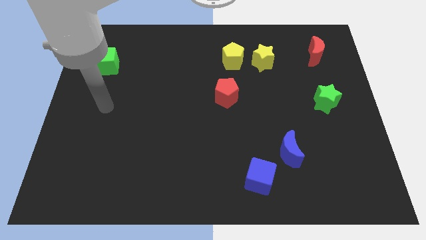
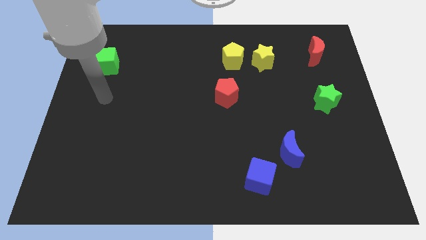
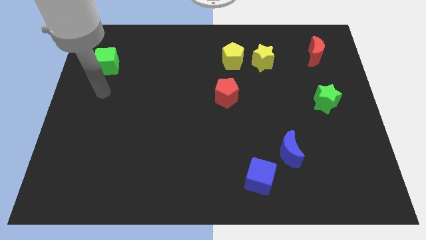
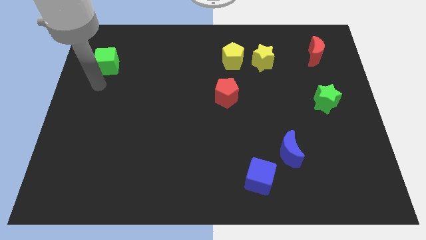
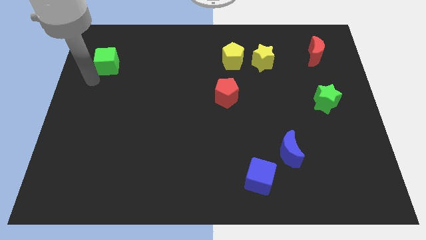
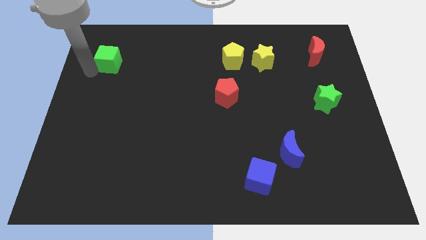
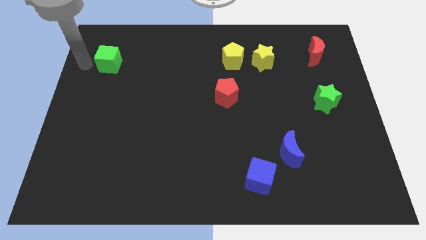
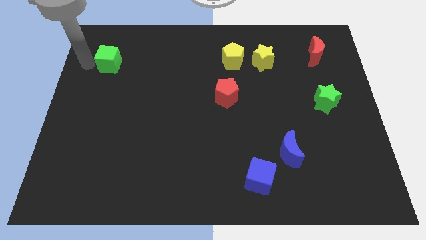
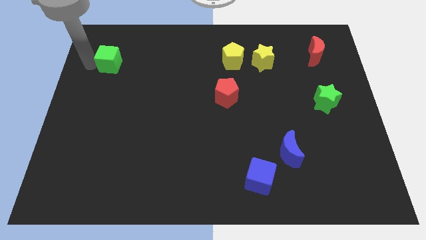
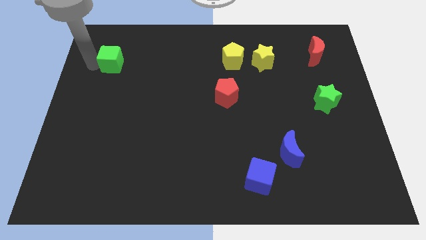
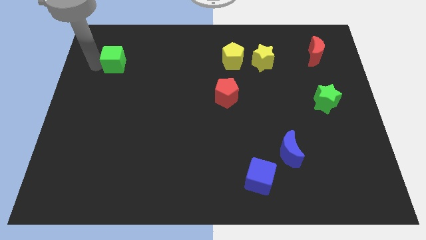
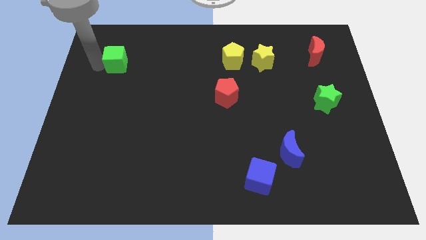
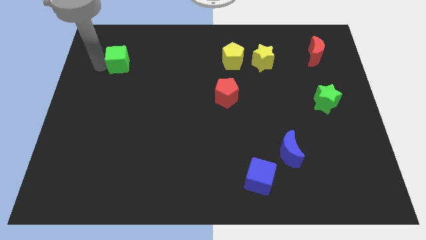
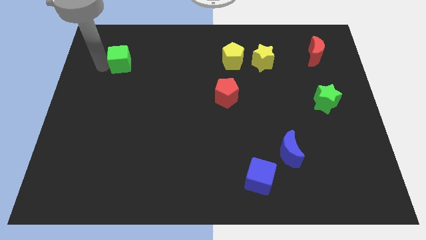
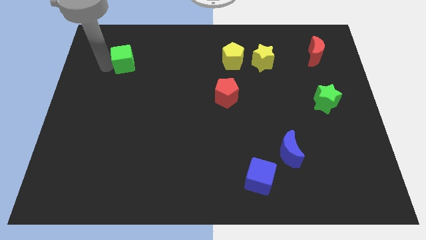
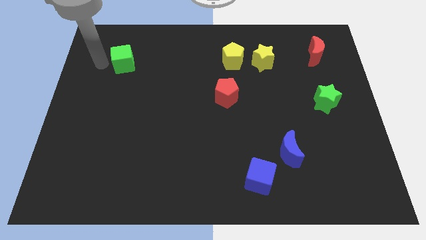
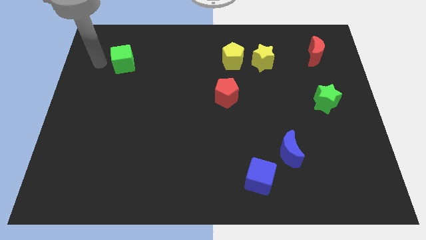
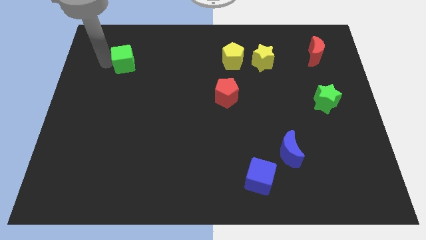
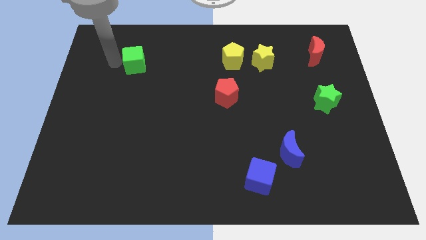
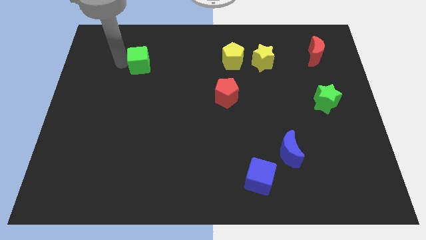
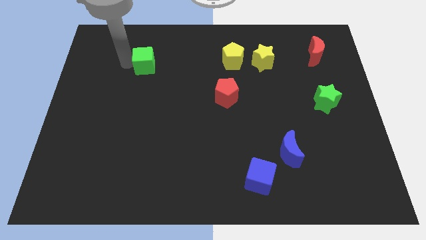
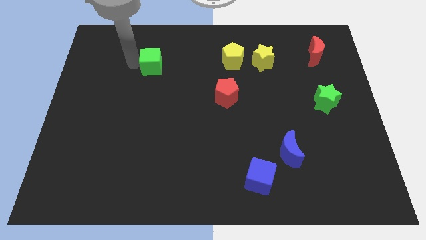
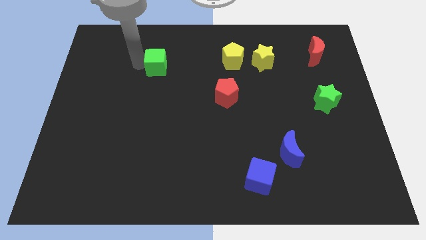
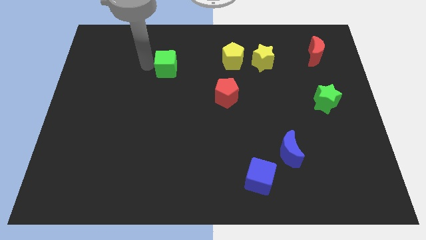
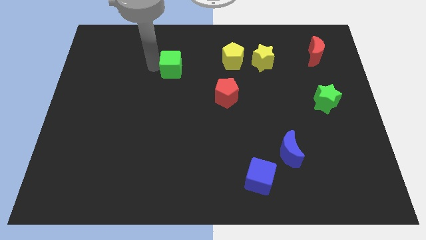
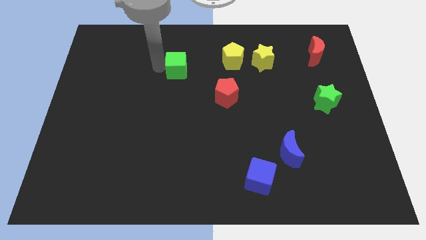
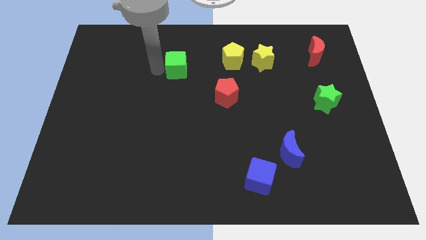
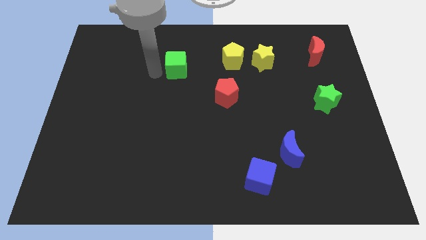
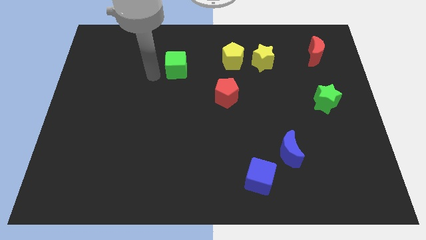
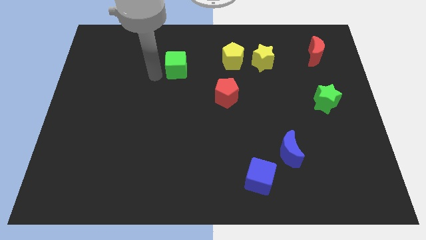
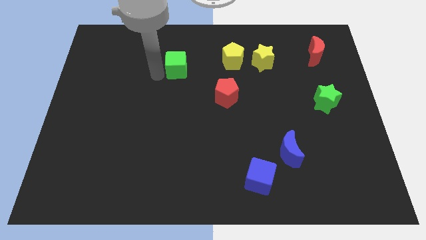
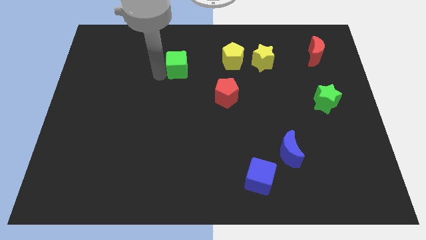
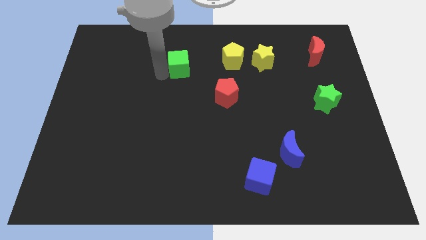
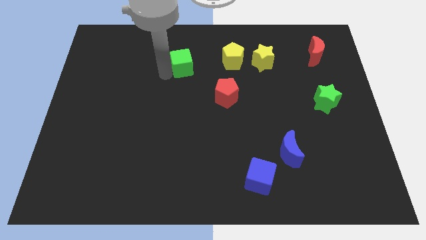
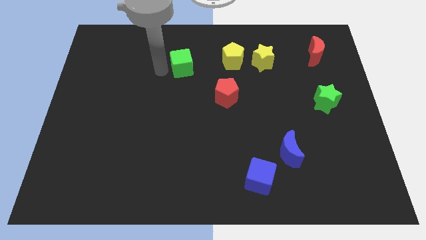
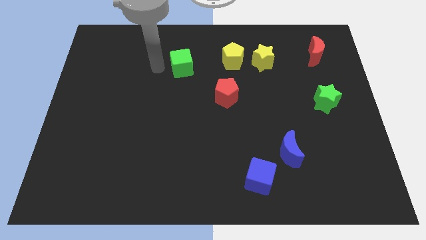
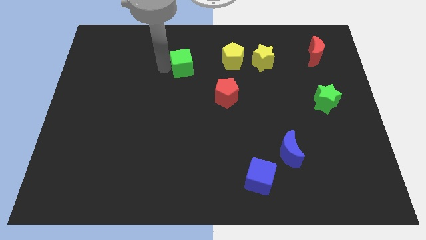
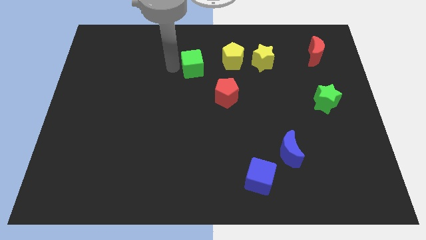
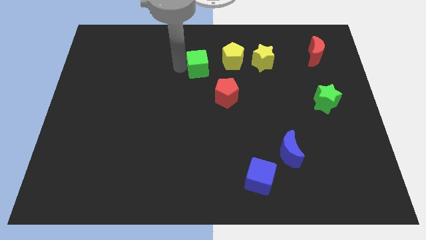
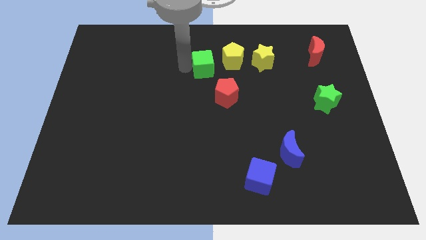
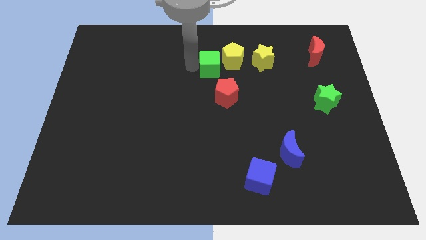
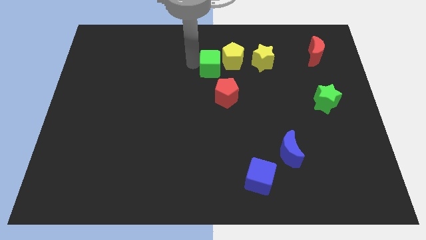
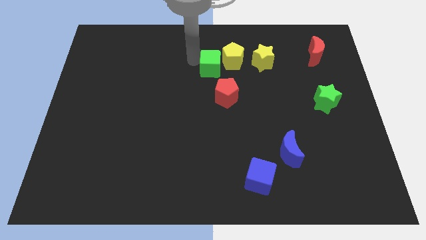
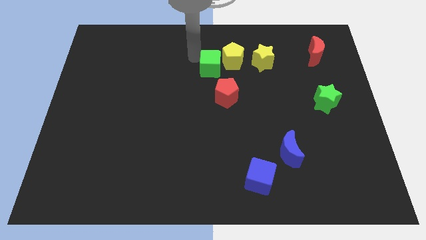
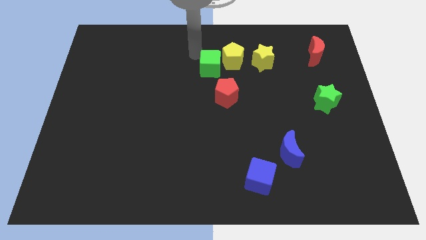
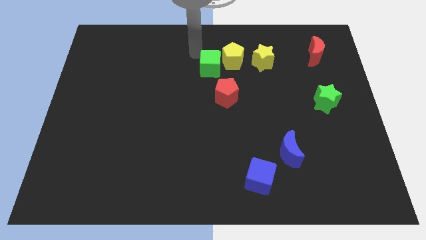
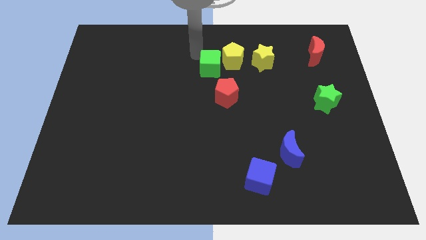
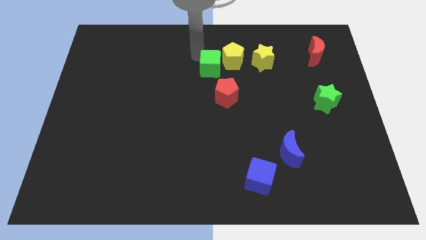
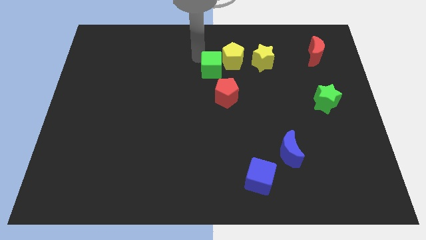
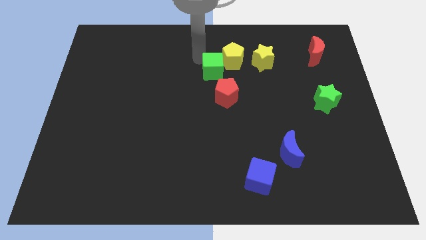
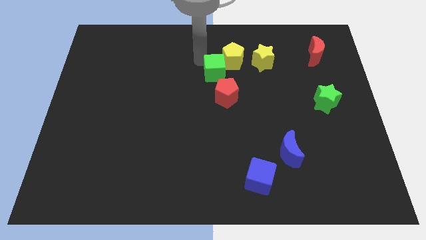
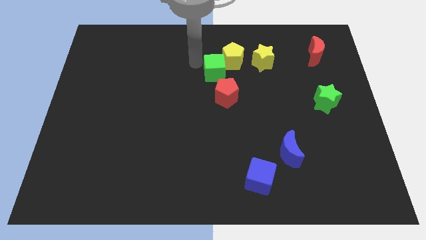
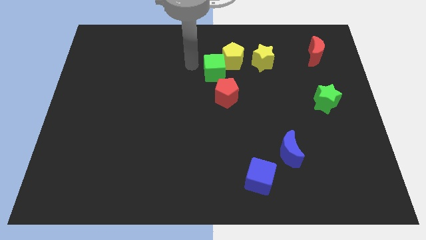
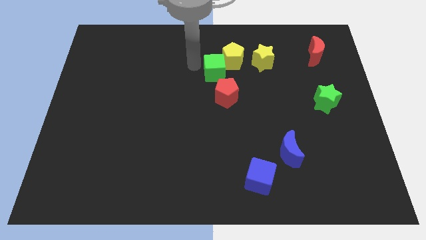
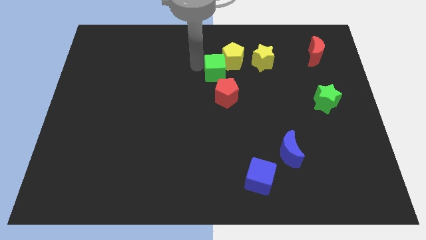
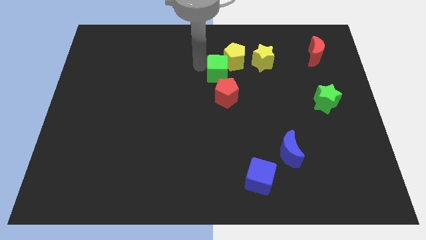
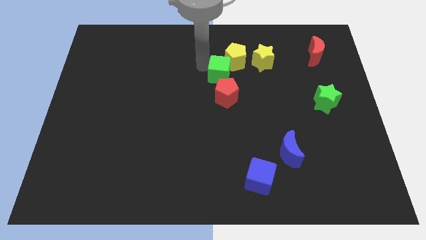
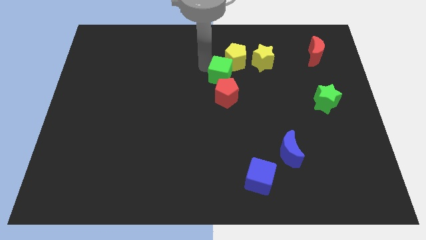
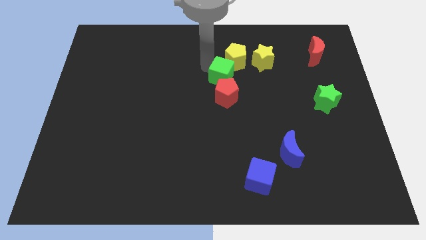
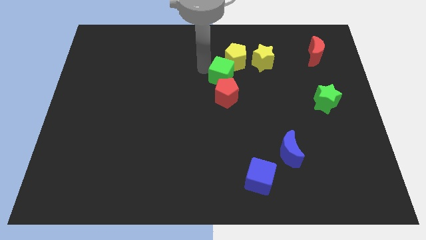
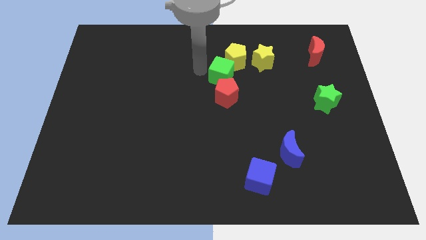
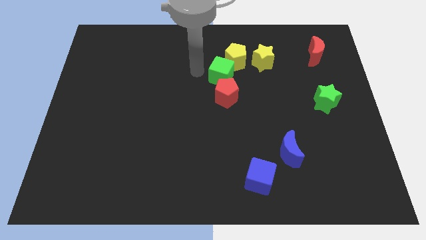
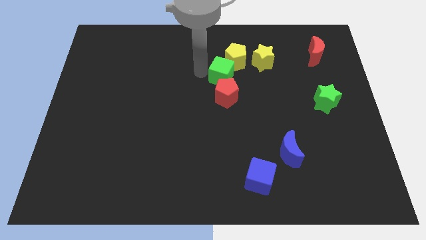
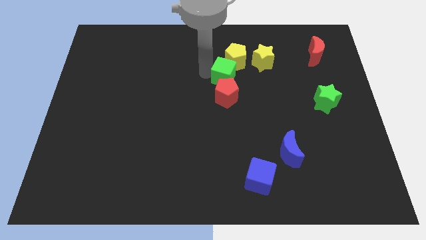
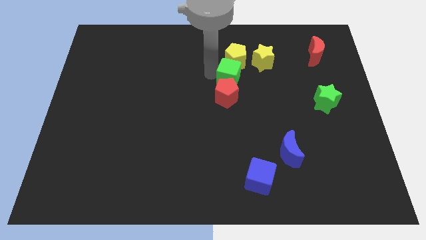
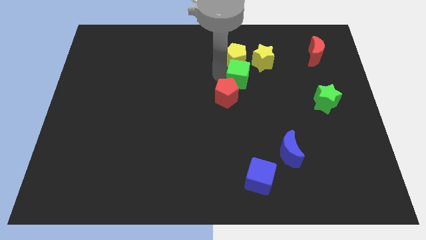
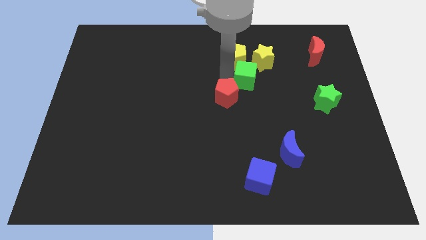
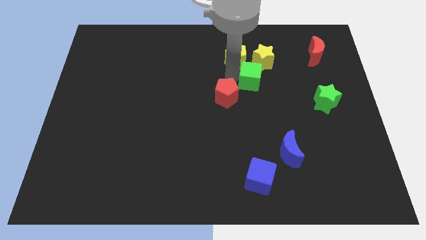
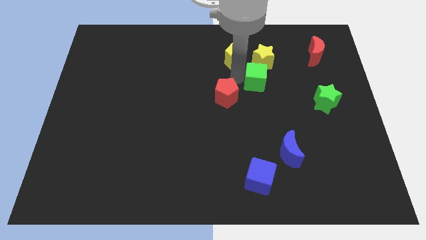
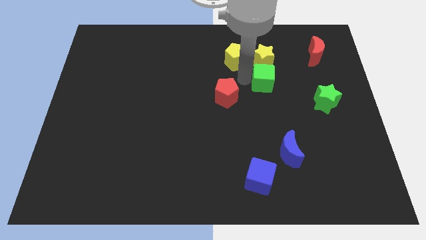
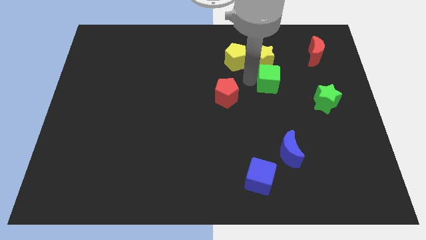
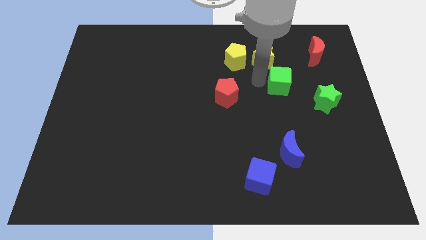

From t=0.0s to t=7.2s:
put the green cube to the top left of the green star
